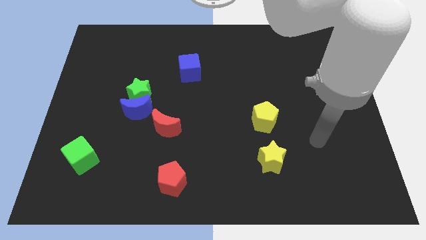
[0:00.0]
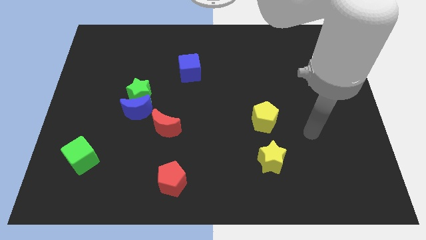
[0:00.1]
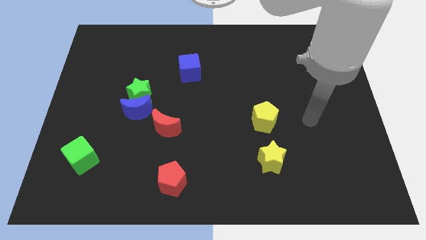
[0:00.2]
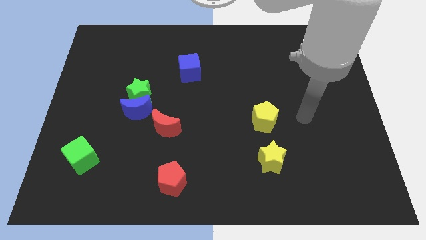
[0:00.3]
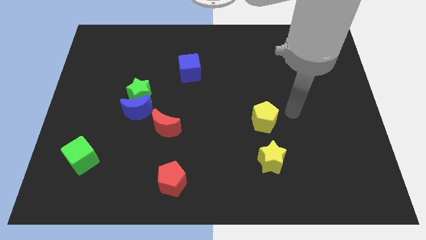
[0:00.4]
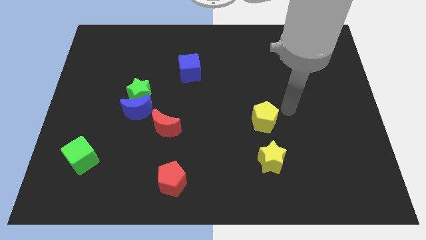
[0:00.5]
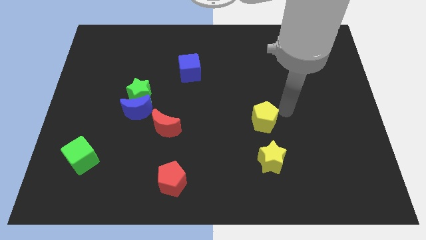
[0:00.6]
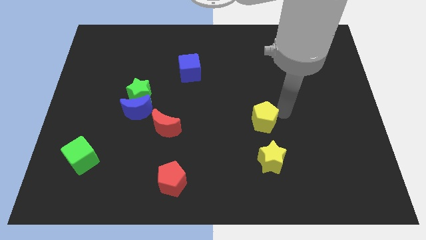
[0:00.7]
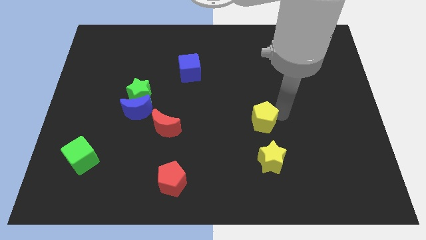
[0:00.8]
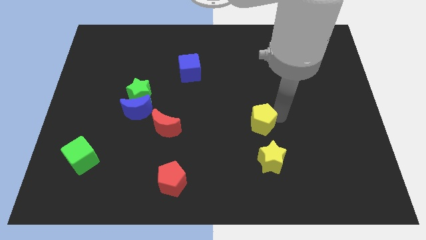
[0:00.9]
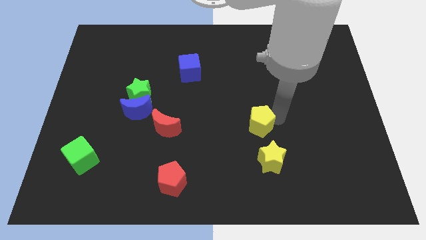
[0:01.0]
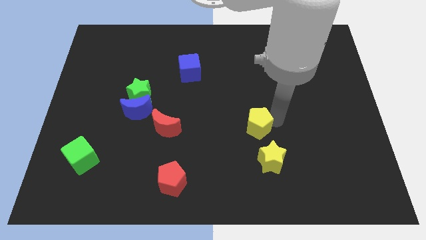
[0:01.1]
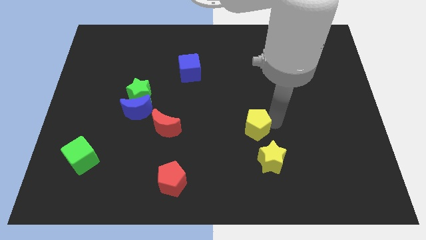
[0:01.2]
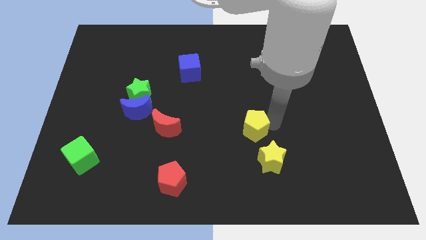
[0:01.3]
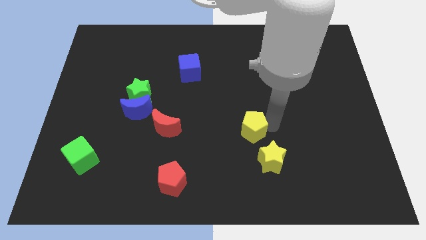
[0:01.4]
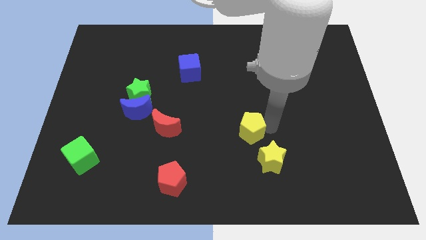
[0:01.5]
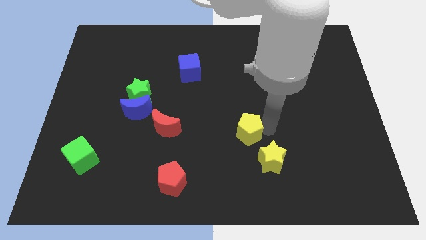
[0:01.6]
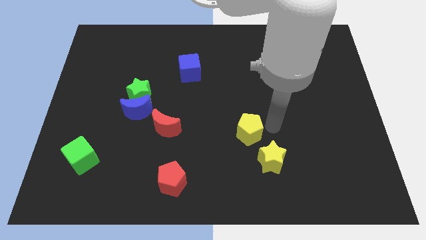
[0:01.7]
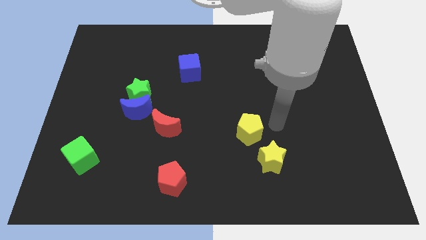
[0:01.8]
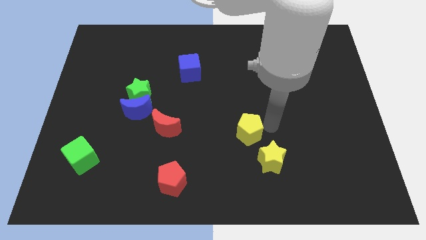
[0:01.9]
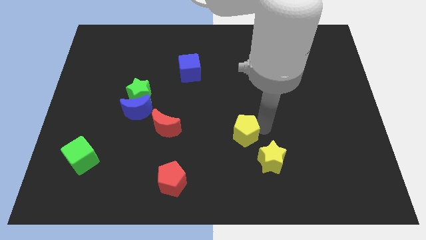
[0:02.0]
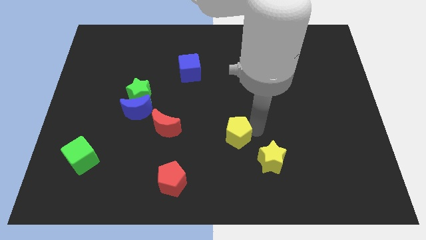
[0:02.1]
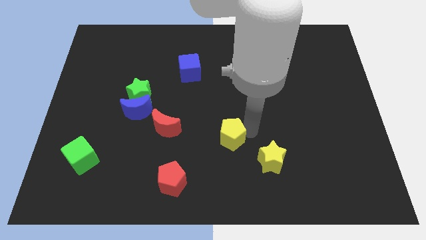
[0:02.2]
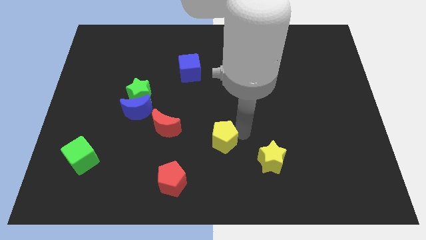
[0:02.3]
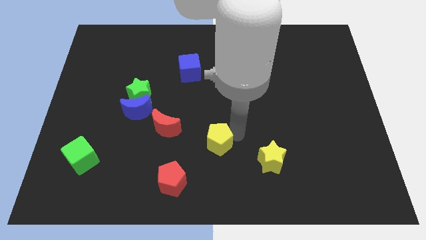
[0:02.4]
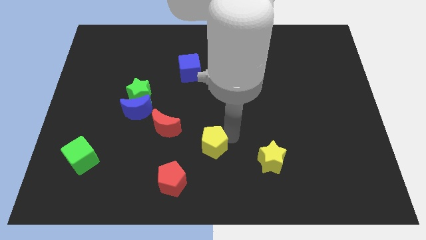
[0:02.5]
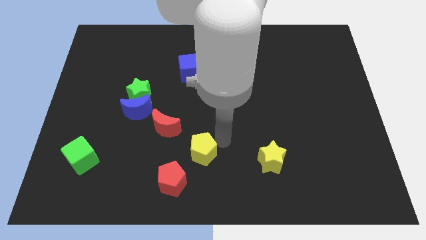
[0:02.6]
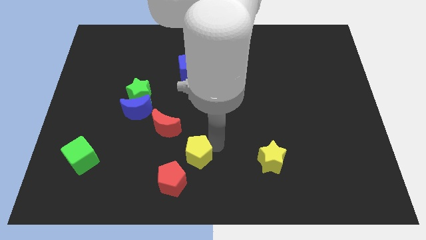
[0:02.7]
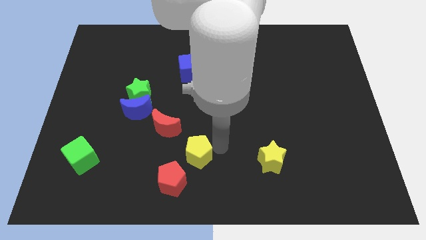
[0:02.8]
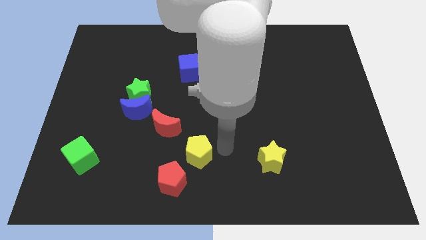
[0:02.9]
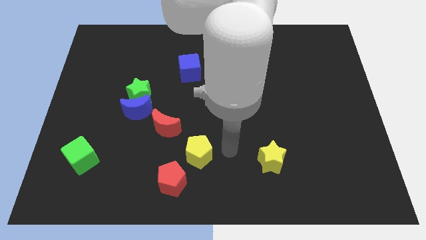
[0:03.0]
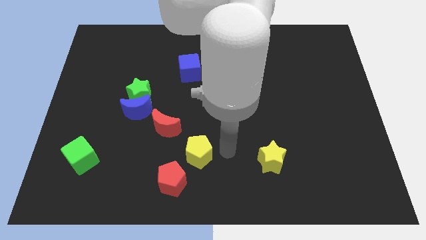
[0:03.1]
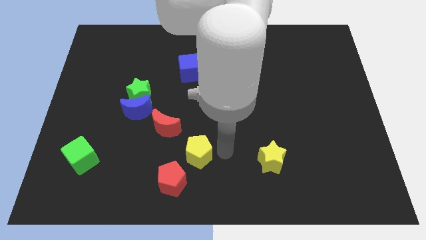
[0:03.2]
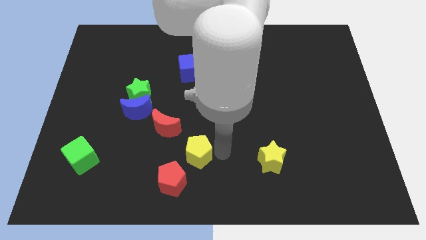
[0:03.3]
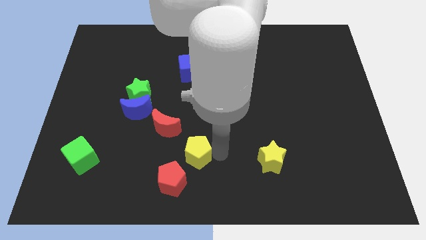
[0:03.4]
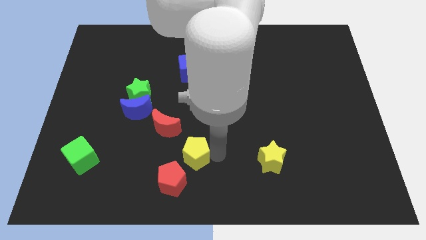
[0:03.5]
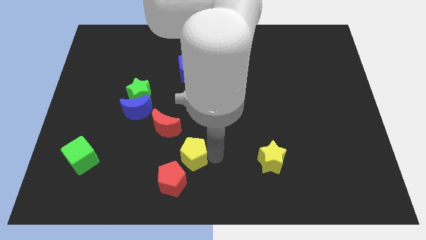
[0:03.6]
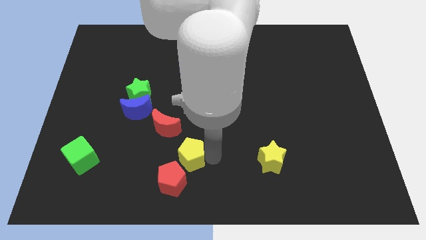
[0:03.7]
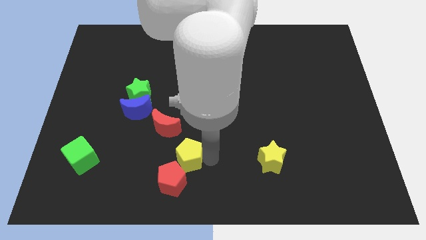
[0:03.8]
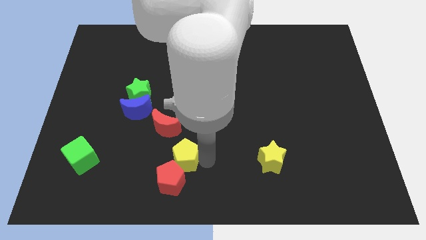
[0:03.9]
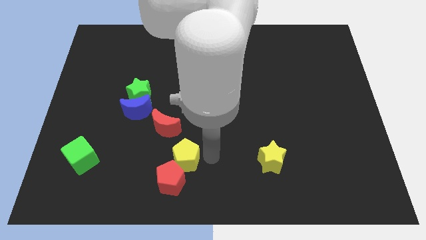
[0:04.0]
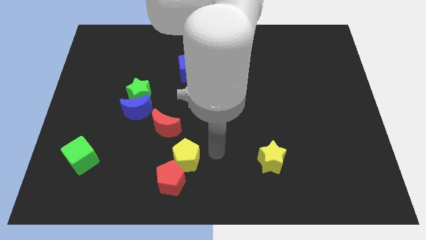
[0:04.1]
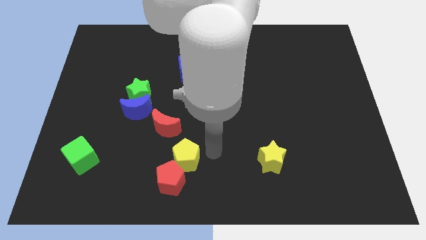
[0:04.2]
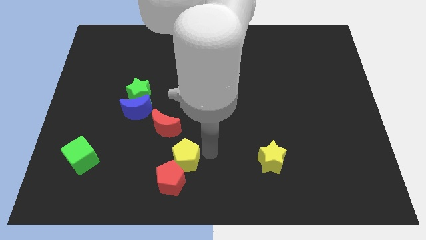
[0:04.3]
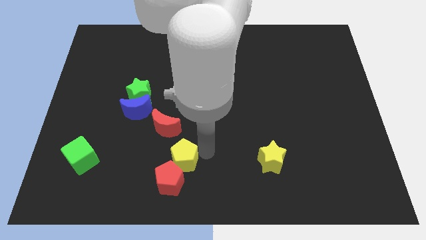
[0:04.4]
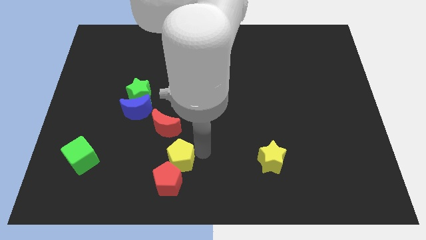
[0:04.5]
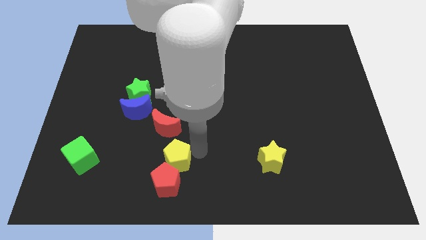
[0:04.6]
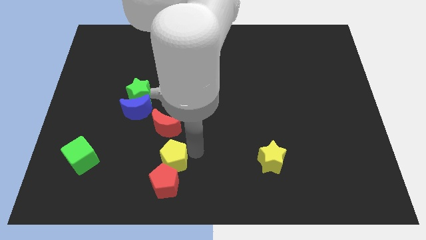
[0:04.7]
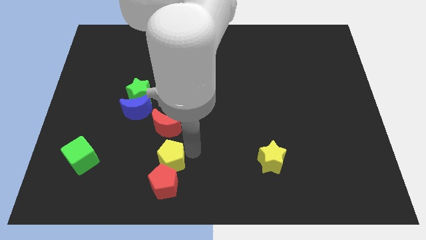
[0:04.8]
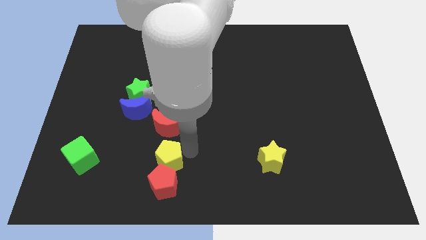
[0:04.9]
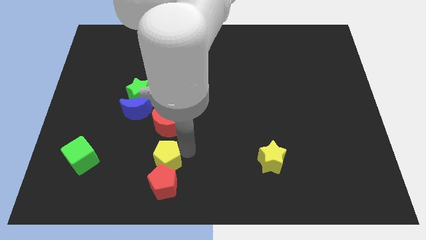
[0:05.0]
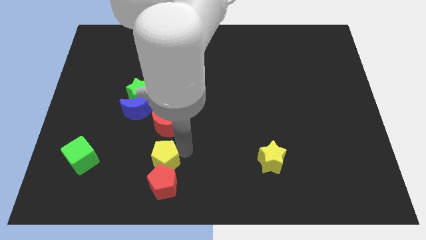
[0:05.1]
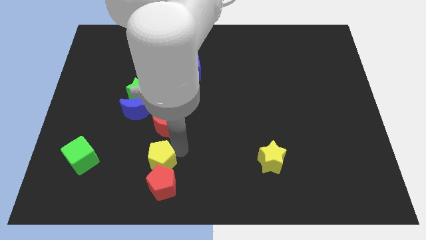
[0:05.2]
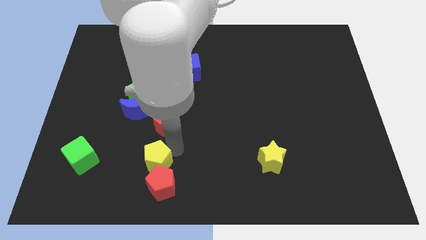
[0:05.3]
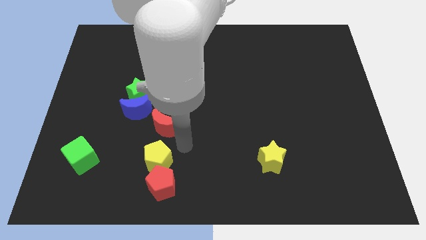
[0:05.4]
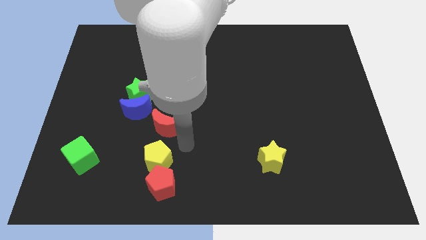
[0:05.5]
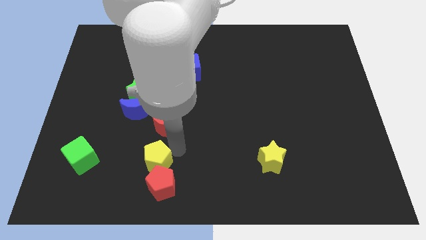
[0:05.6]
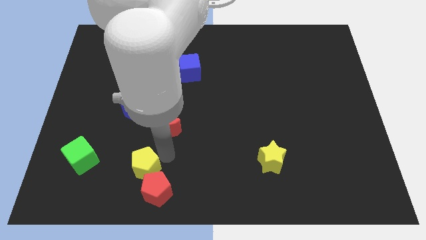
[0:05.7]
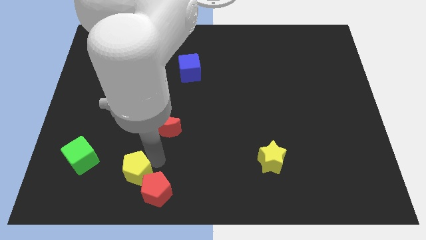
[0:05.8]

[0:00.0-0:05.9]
slide the yellow pentagon to the left side of the red pentagon

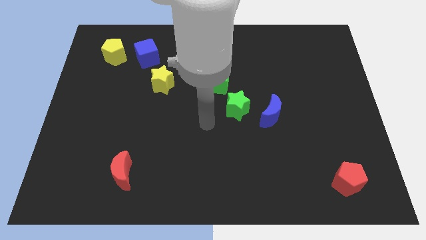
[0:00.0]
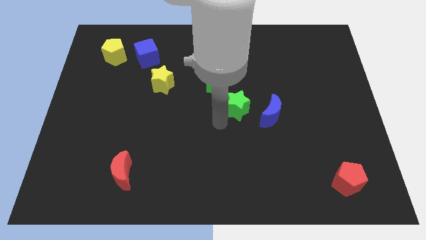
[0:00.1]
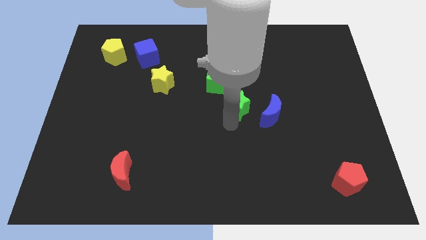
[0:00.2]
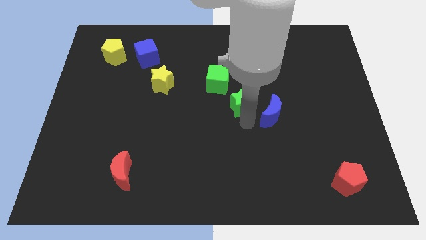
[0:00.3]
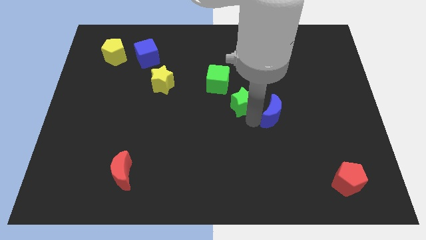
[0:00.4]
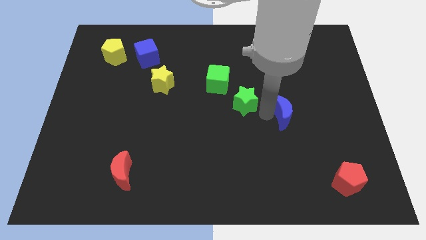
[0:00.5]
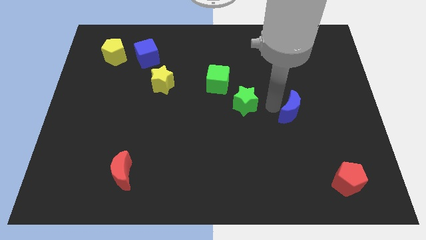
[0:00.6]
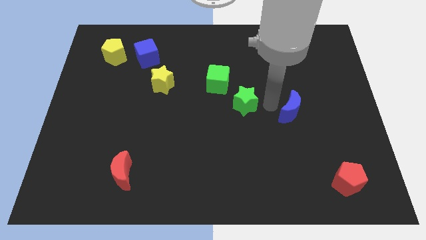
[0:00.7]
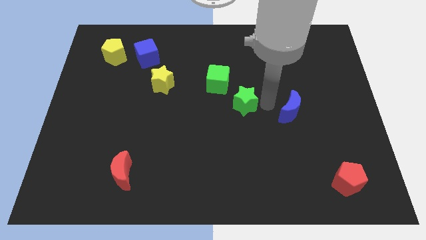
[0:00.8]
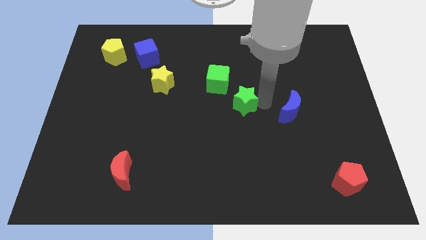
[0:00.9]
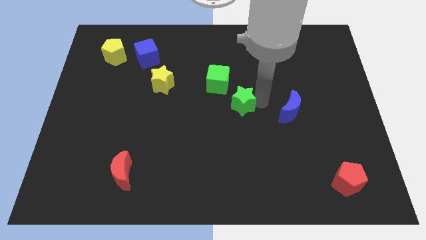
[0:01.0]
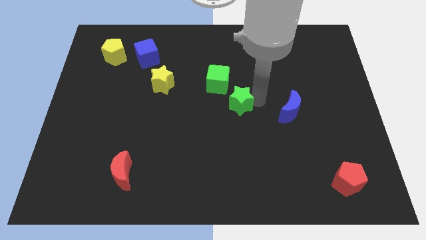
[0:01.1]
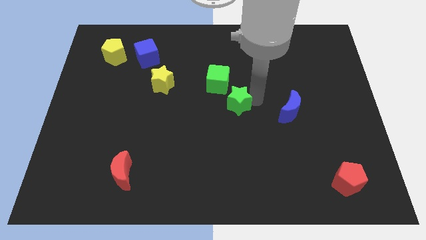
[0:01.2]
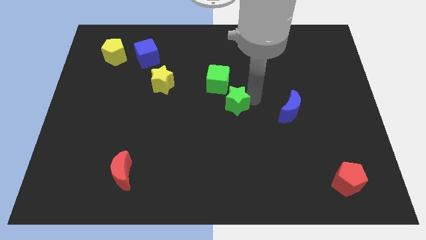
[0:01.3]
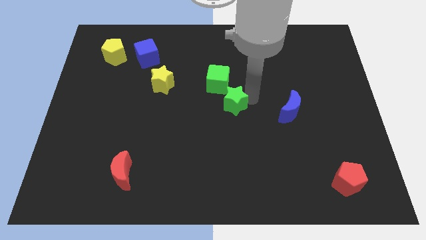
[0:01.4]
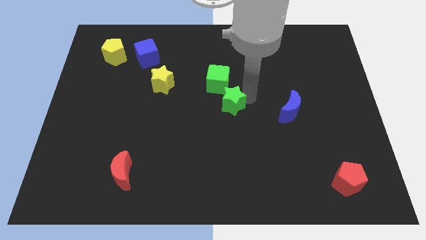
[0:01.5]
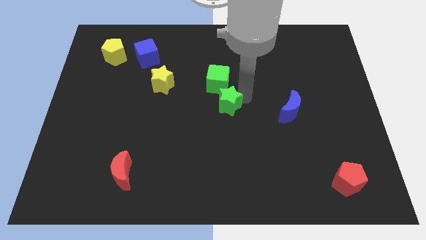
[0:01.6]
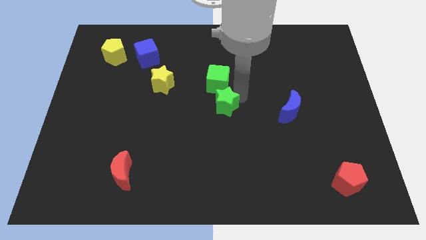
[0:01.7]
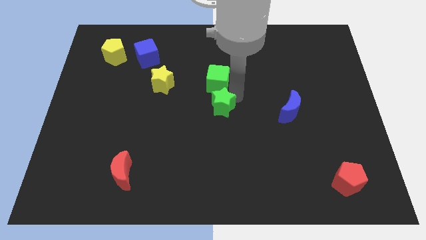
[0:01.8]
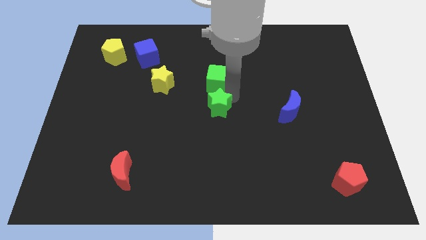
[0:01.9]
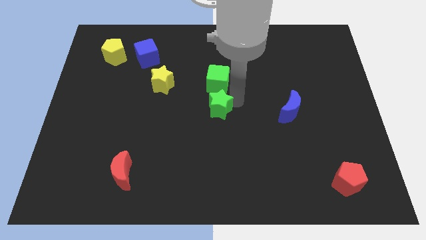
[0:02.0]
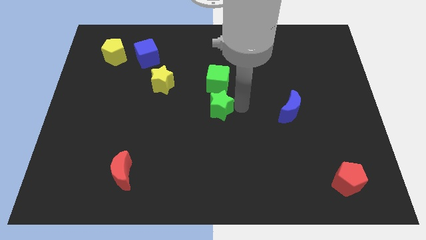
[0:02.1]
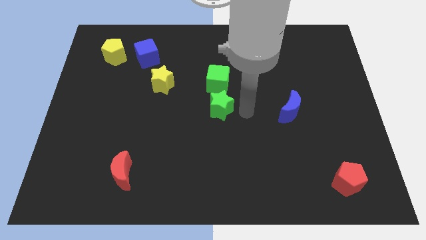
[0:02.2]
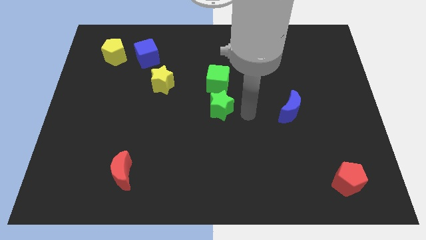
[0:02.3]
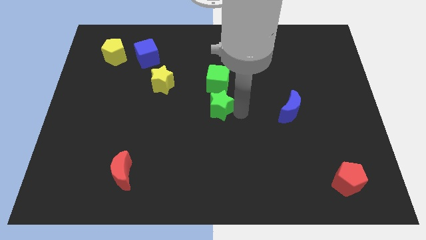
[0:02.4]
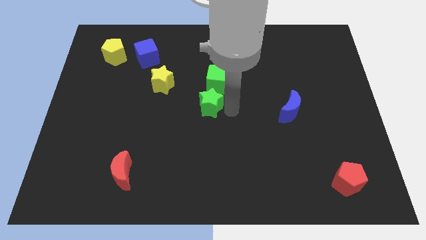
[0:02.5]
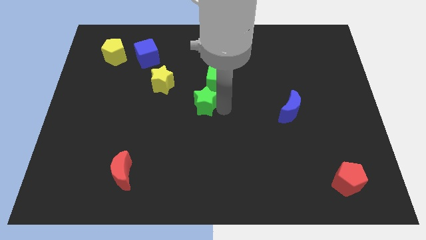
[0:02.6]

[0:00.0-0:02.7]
slide the green star to the bottom right of the yellow star
